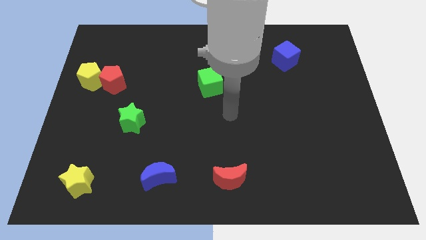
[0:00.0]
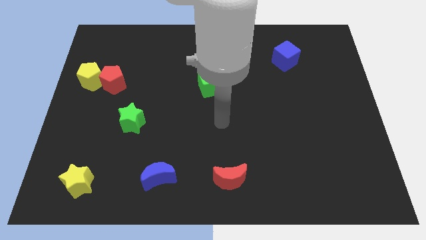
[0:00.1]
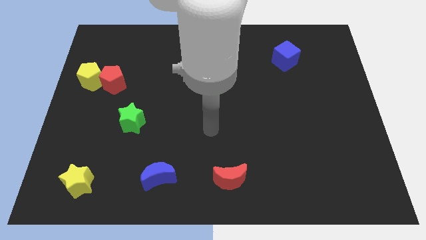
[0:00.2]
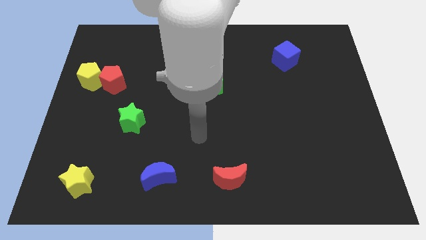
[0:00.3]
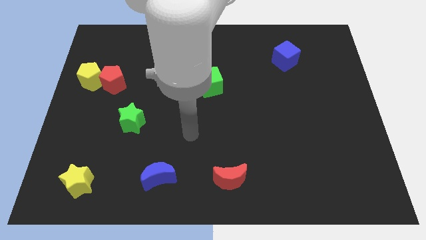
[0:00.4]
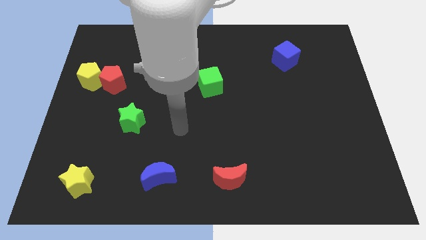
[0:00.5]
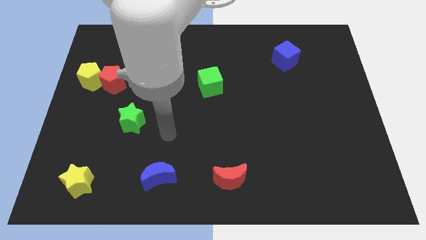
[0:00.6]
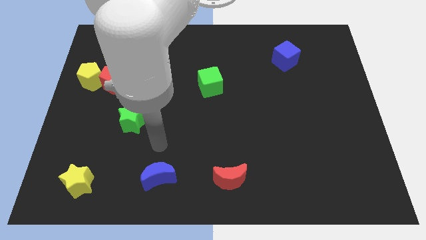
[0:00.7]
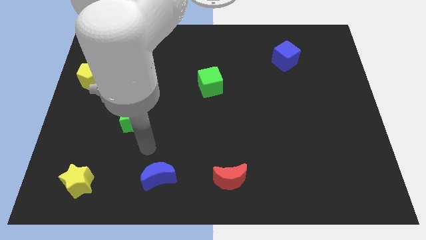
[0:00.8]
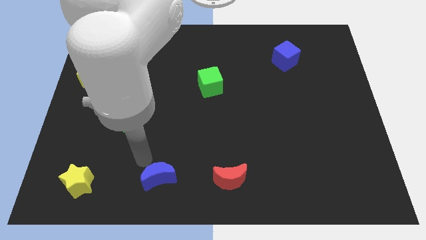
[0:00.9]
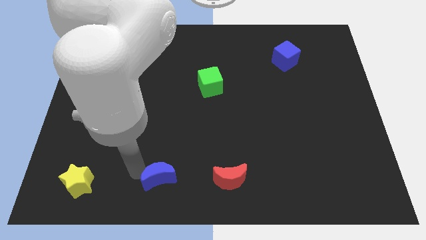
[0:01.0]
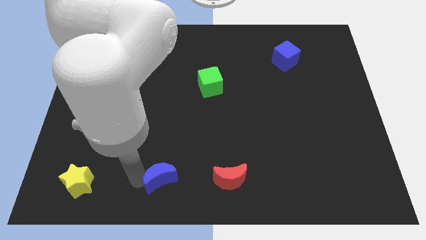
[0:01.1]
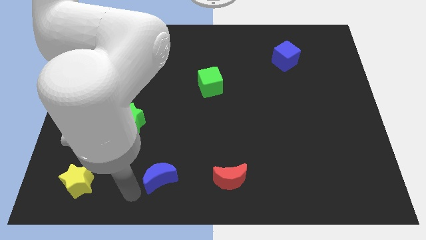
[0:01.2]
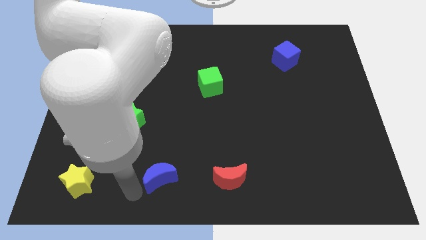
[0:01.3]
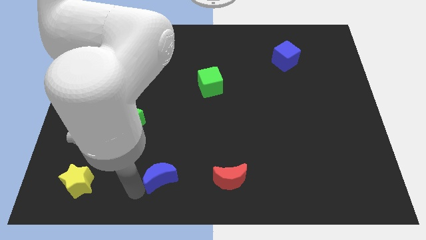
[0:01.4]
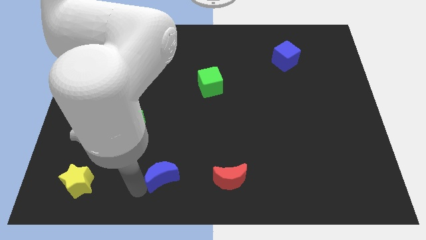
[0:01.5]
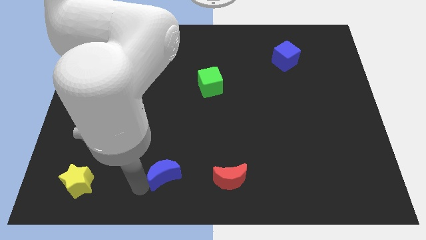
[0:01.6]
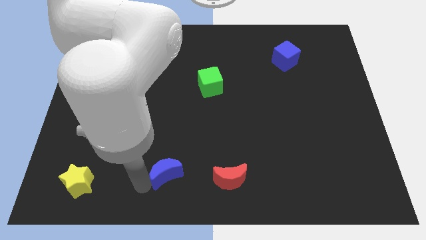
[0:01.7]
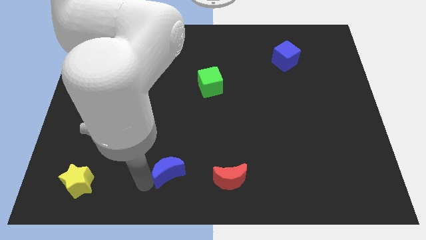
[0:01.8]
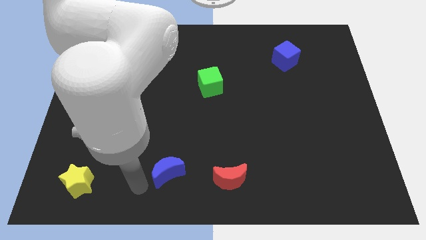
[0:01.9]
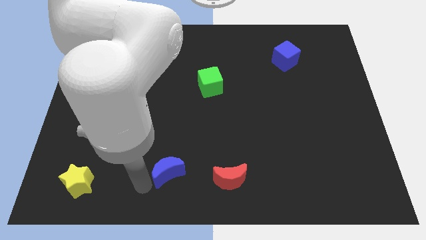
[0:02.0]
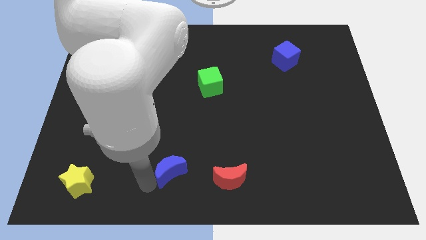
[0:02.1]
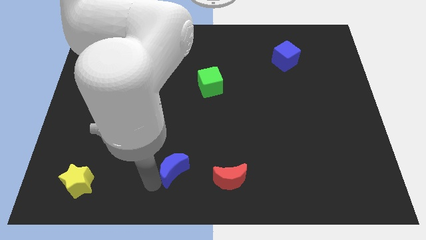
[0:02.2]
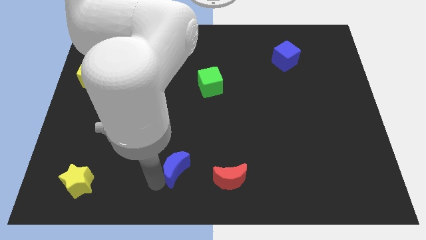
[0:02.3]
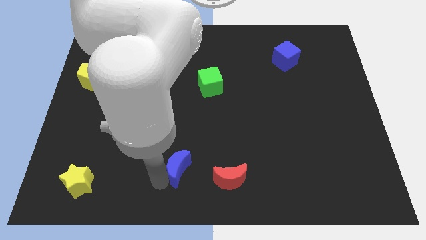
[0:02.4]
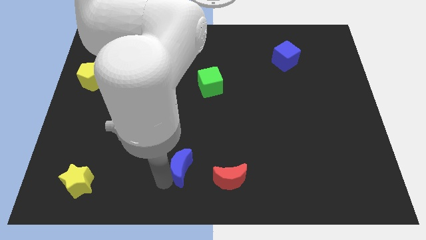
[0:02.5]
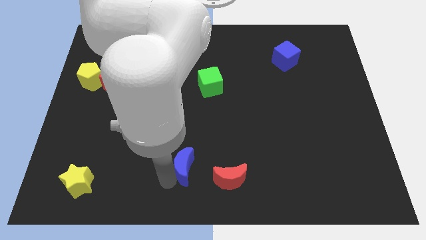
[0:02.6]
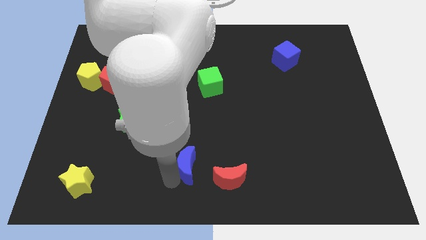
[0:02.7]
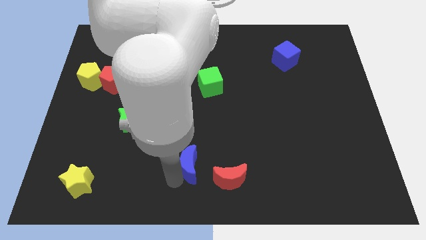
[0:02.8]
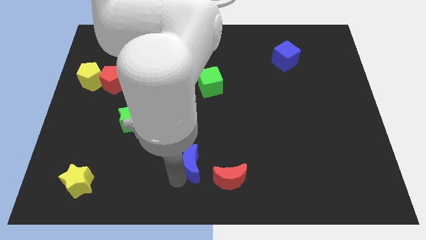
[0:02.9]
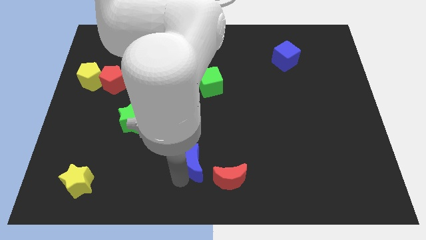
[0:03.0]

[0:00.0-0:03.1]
slightly slide the blue moon to the right

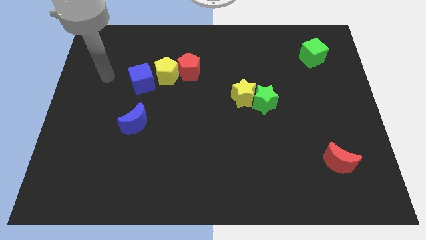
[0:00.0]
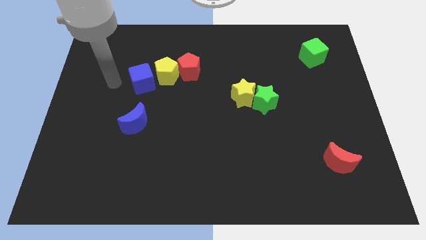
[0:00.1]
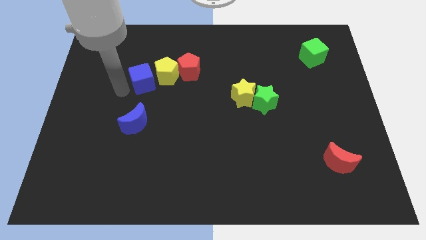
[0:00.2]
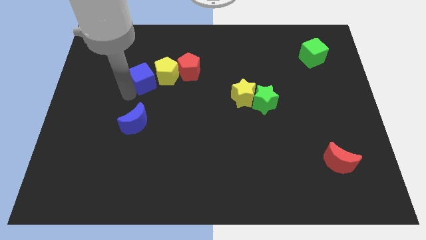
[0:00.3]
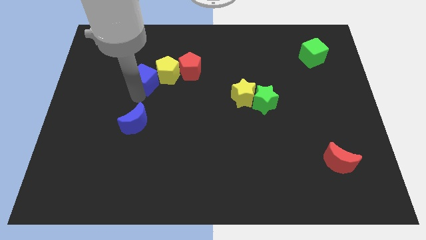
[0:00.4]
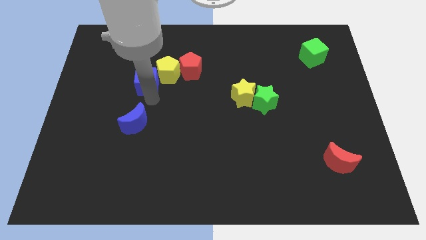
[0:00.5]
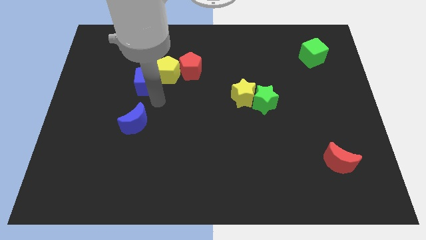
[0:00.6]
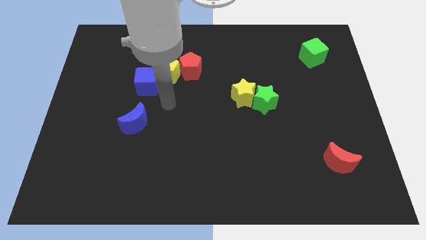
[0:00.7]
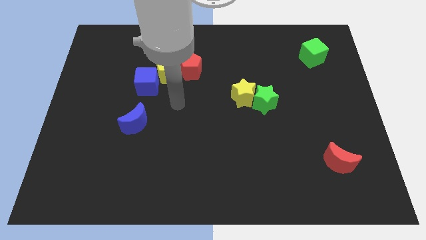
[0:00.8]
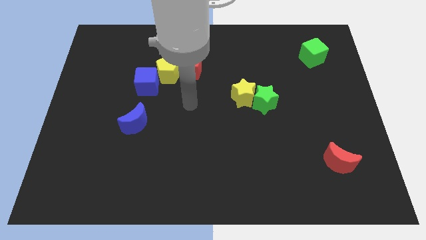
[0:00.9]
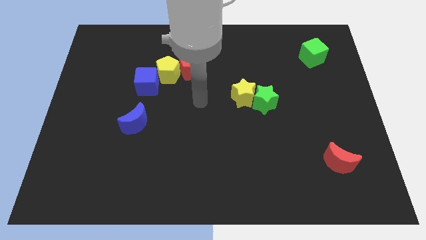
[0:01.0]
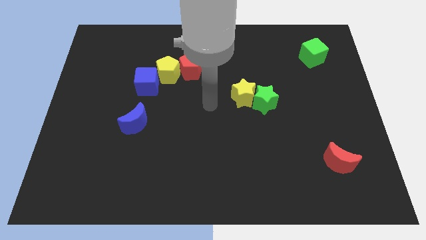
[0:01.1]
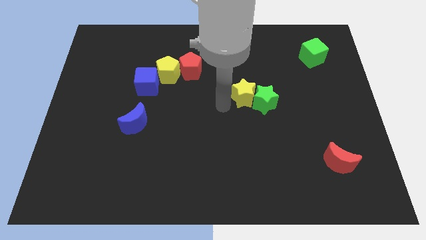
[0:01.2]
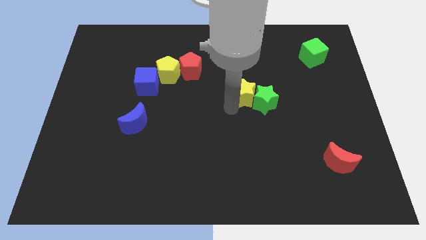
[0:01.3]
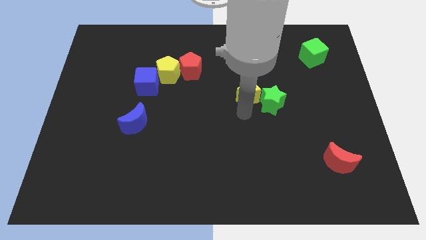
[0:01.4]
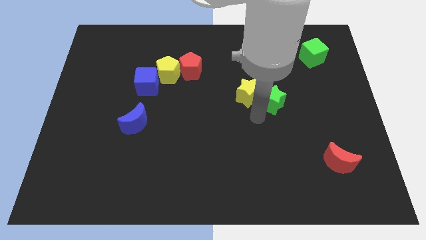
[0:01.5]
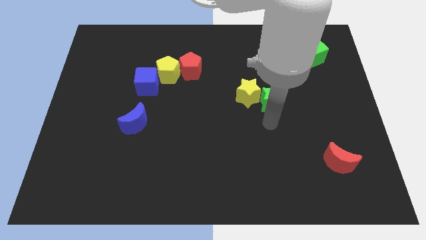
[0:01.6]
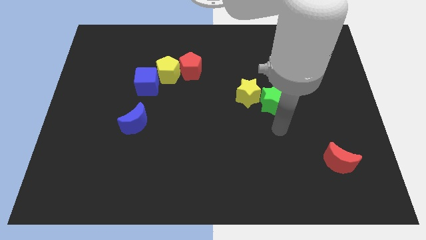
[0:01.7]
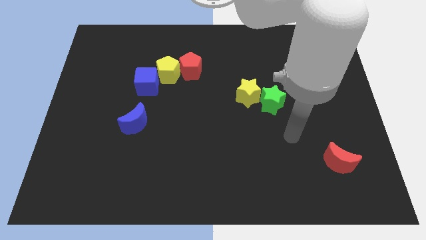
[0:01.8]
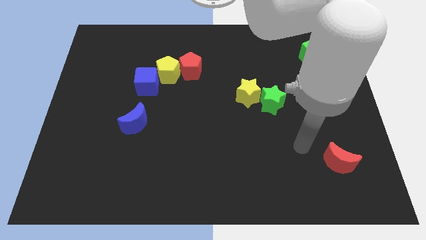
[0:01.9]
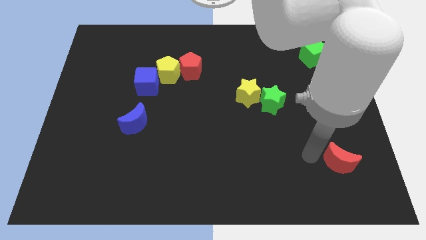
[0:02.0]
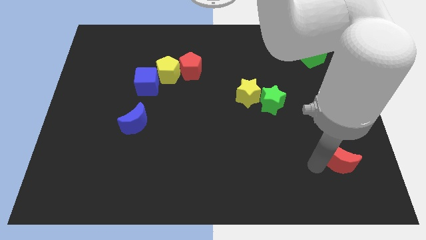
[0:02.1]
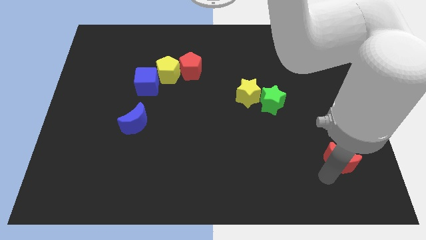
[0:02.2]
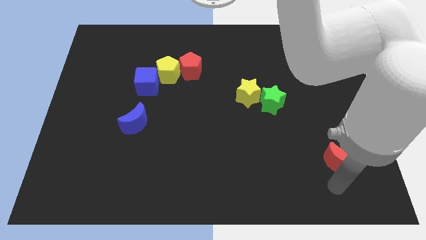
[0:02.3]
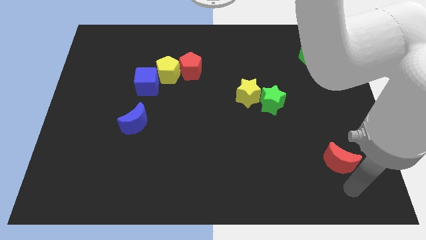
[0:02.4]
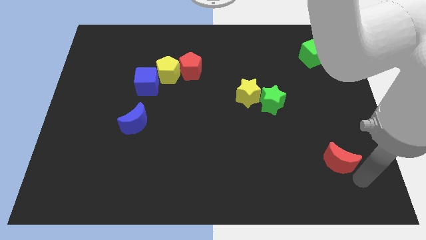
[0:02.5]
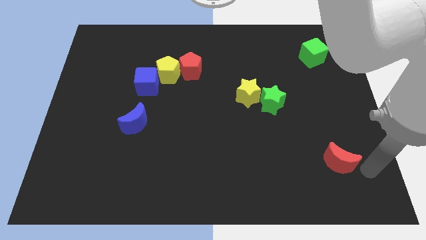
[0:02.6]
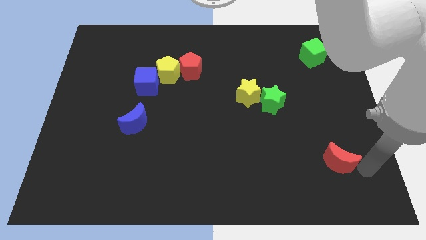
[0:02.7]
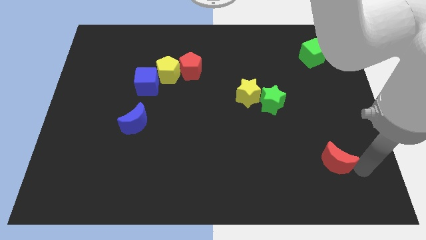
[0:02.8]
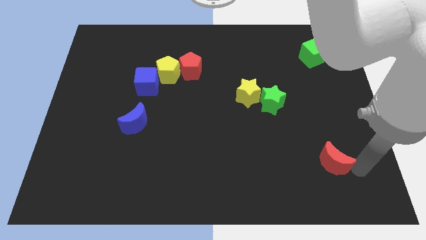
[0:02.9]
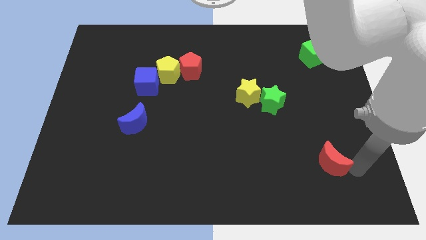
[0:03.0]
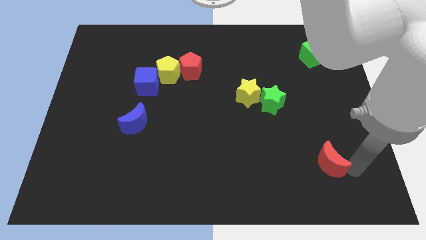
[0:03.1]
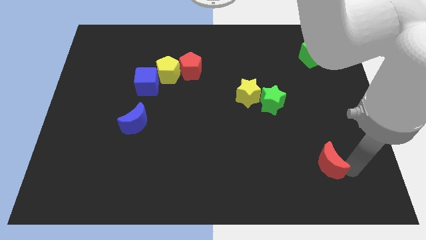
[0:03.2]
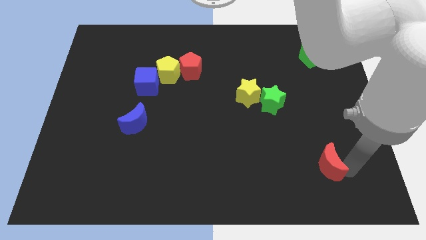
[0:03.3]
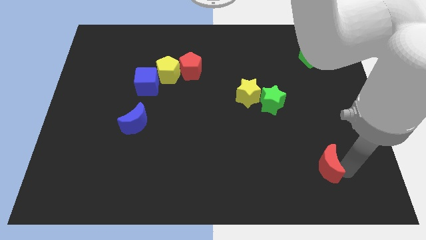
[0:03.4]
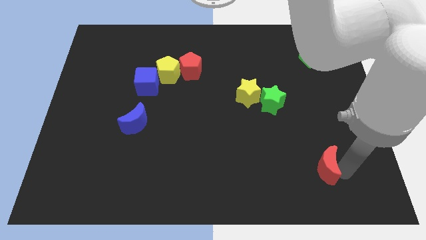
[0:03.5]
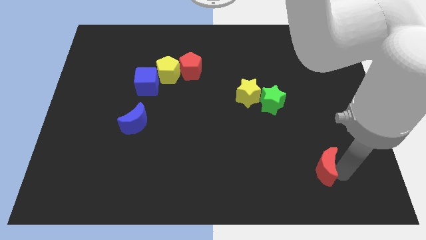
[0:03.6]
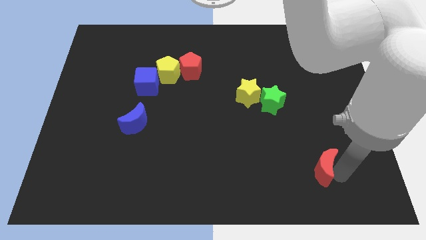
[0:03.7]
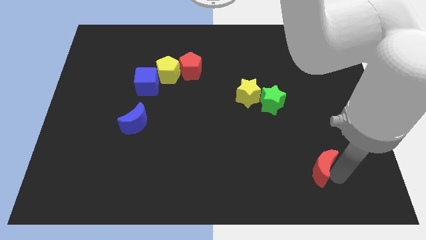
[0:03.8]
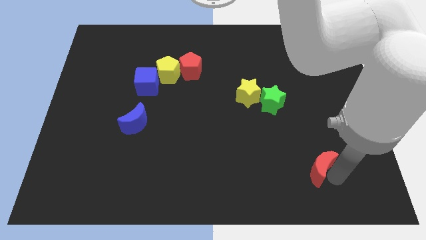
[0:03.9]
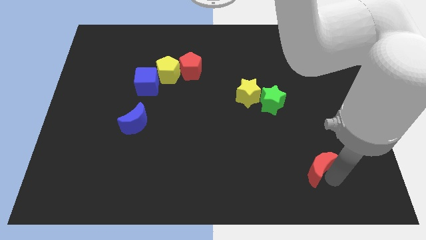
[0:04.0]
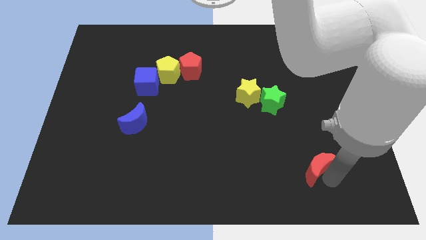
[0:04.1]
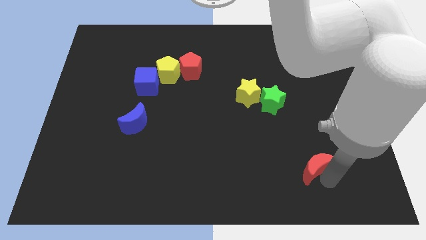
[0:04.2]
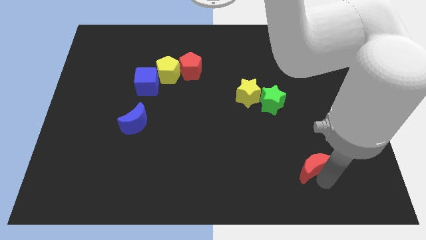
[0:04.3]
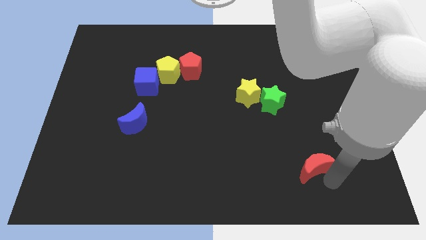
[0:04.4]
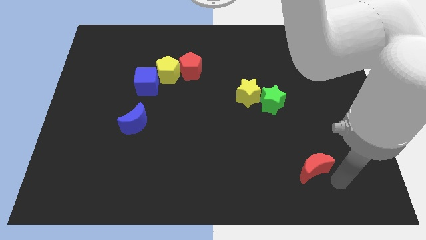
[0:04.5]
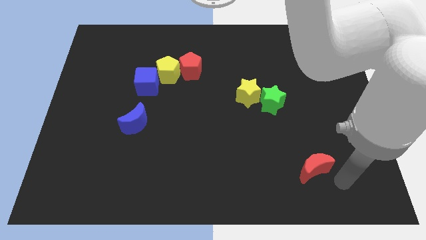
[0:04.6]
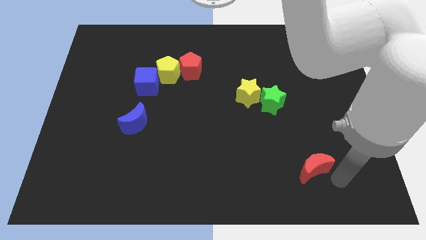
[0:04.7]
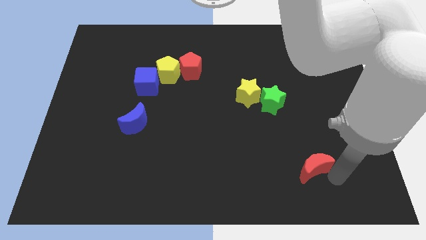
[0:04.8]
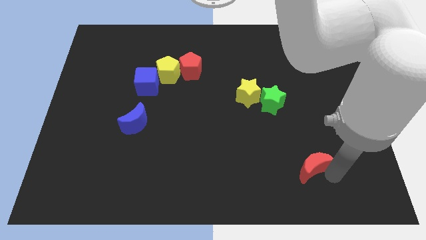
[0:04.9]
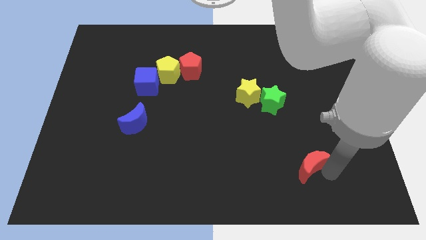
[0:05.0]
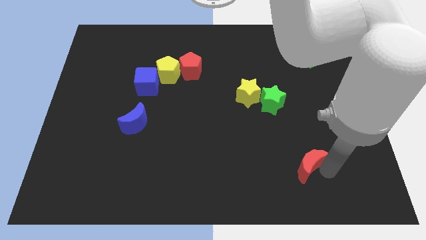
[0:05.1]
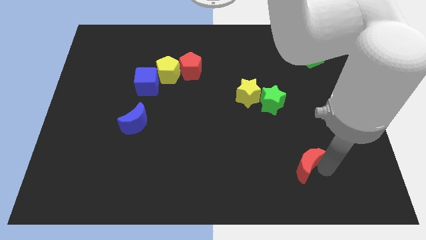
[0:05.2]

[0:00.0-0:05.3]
slightly move the red moon to the left
